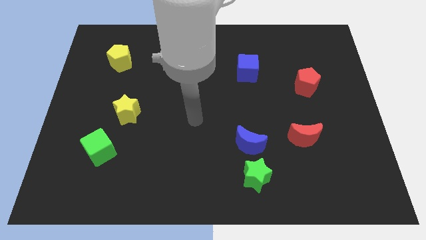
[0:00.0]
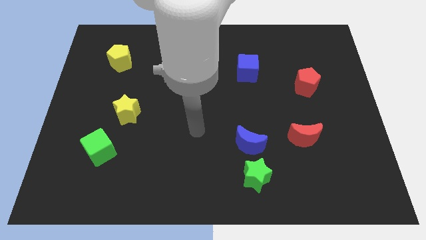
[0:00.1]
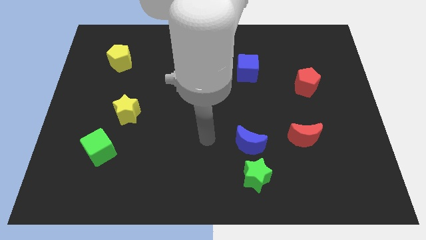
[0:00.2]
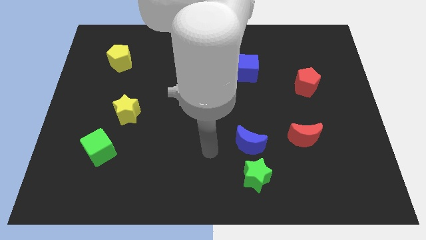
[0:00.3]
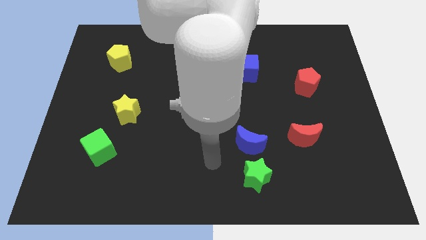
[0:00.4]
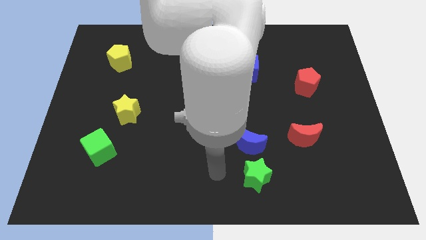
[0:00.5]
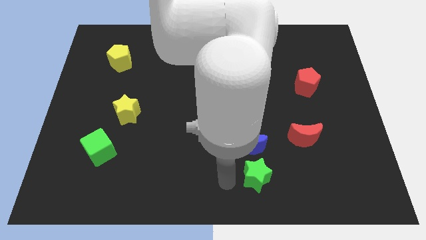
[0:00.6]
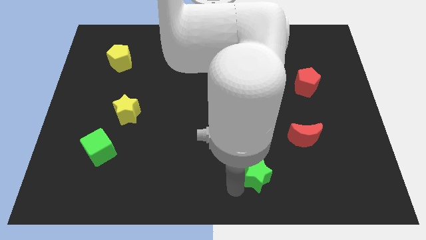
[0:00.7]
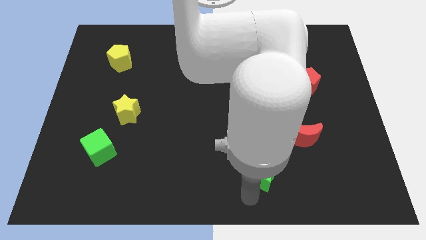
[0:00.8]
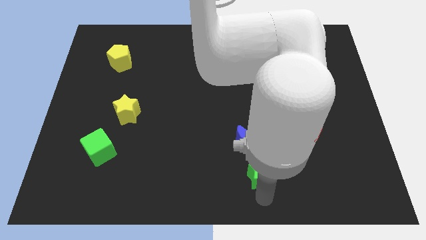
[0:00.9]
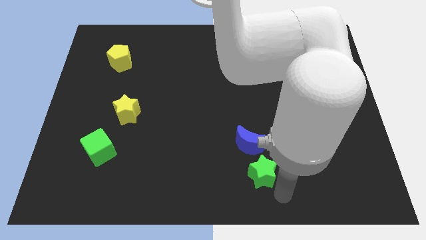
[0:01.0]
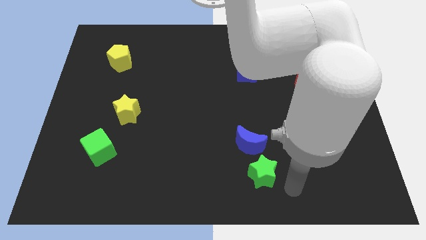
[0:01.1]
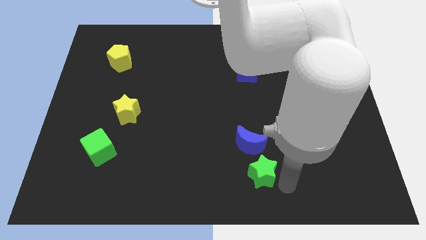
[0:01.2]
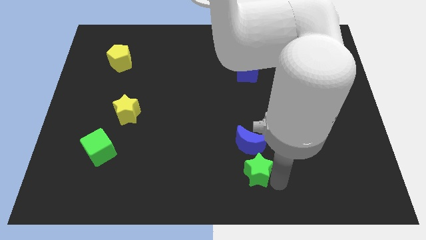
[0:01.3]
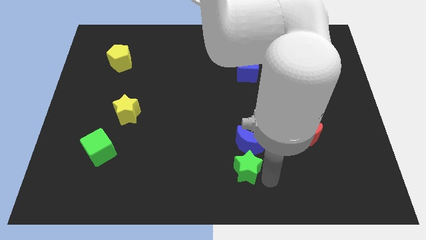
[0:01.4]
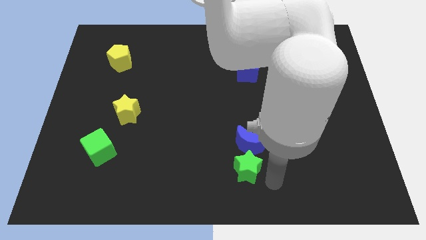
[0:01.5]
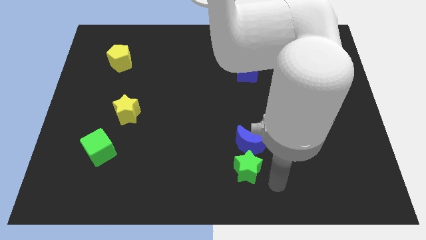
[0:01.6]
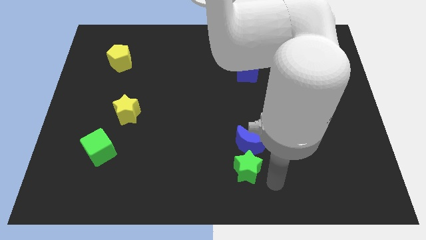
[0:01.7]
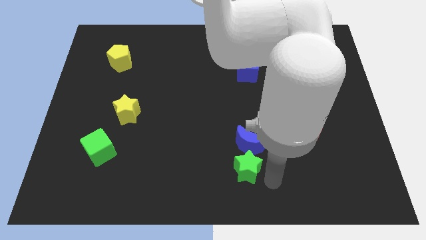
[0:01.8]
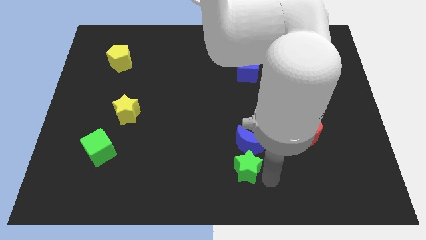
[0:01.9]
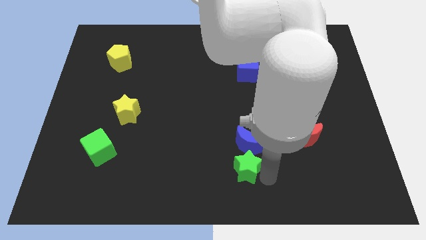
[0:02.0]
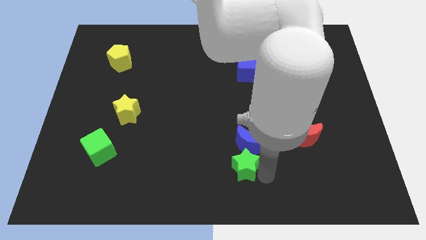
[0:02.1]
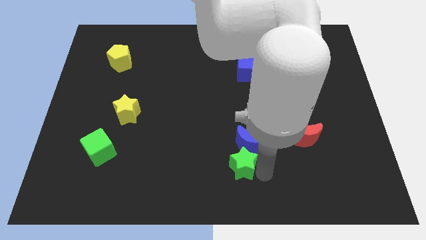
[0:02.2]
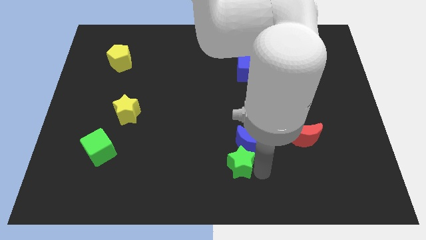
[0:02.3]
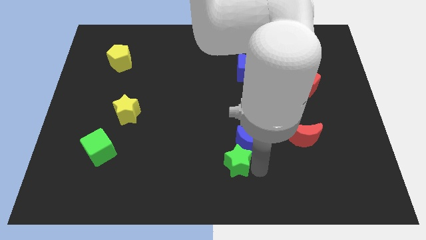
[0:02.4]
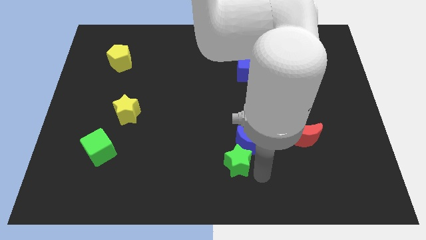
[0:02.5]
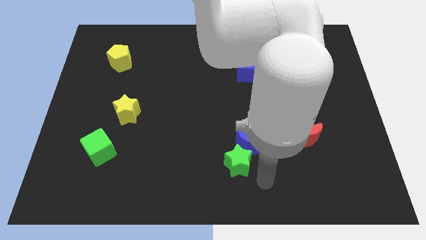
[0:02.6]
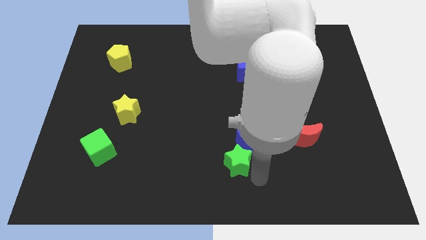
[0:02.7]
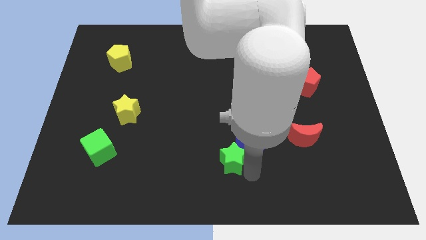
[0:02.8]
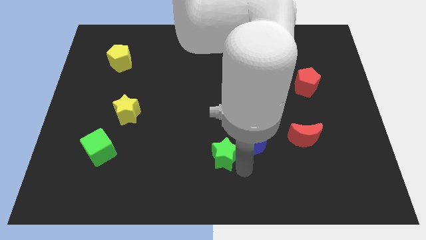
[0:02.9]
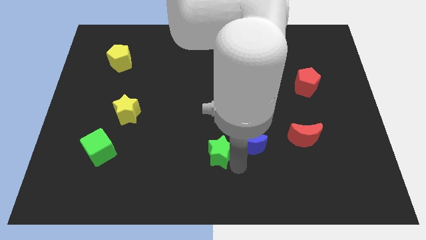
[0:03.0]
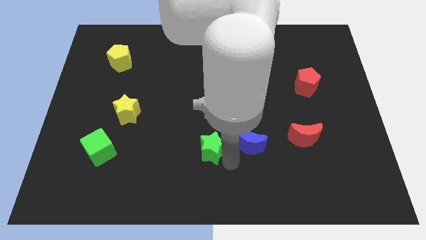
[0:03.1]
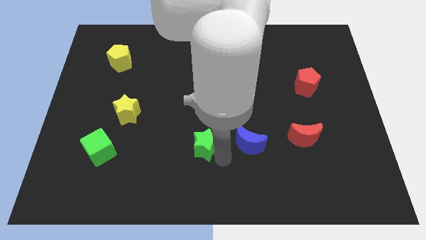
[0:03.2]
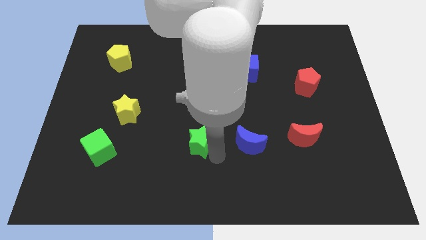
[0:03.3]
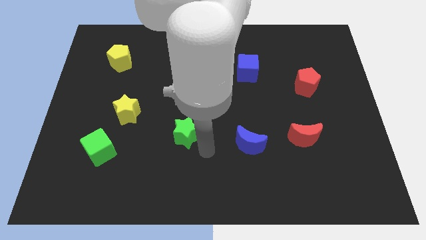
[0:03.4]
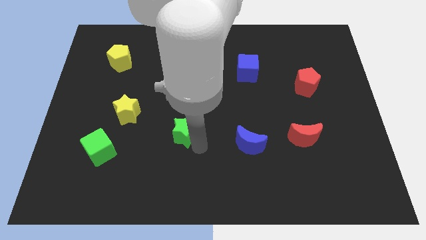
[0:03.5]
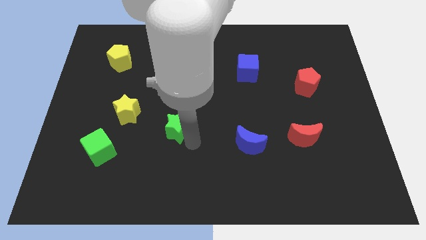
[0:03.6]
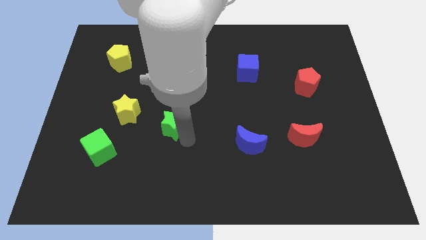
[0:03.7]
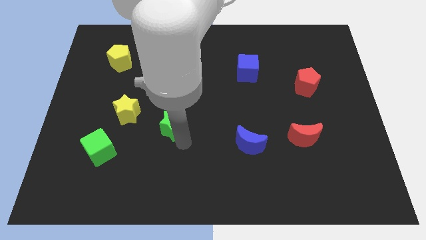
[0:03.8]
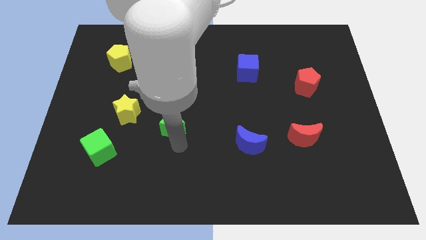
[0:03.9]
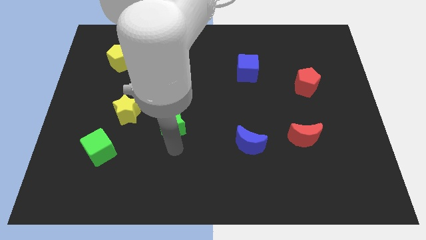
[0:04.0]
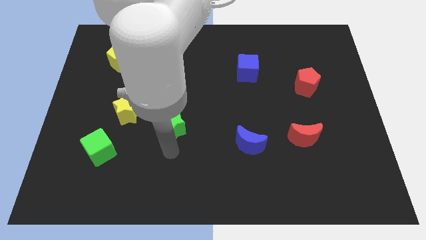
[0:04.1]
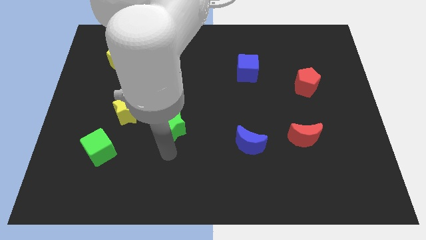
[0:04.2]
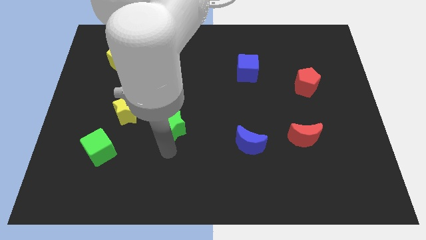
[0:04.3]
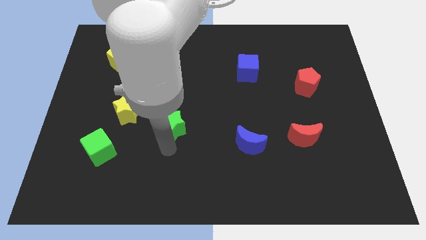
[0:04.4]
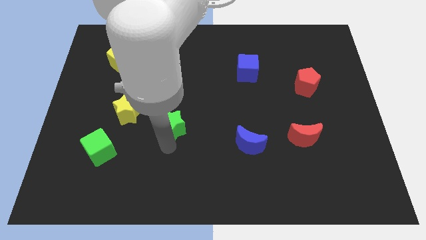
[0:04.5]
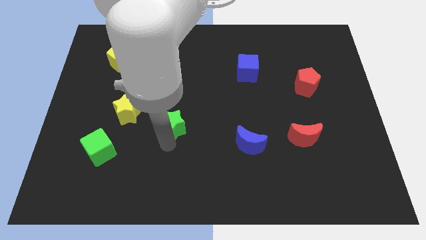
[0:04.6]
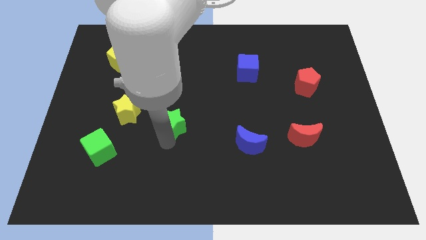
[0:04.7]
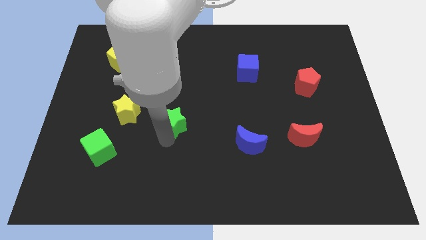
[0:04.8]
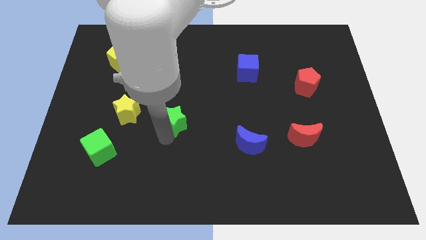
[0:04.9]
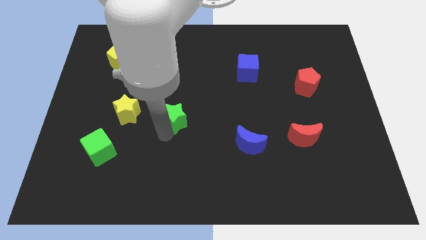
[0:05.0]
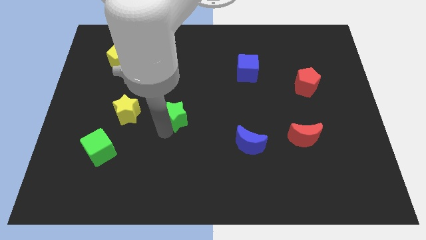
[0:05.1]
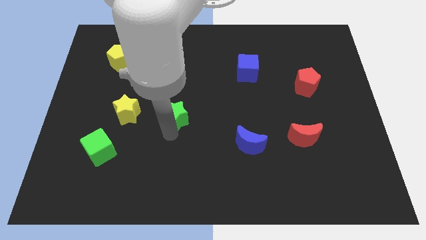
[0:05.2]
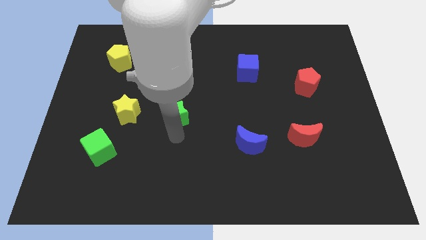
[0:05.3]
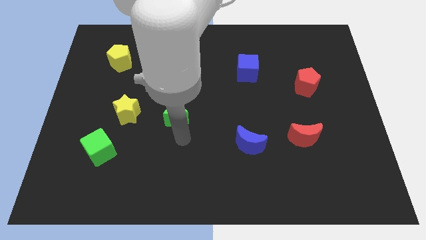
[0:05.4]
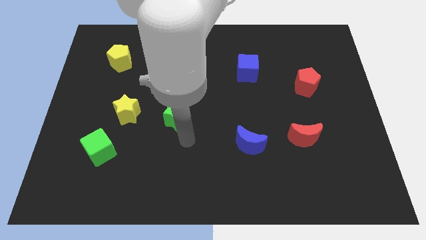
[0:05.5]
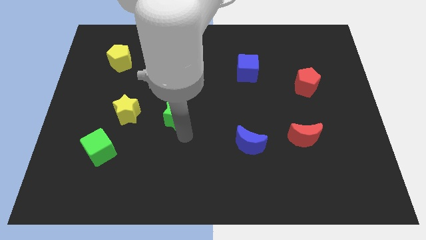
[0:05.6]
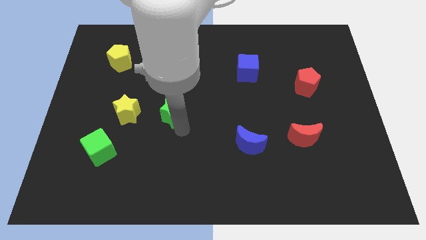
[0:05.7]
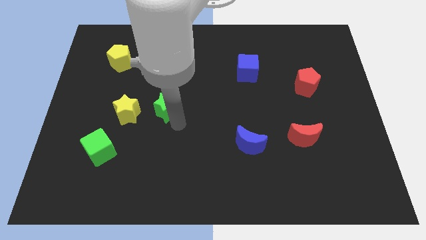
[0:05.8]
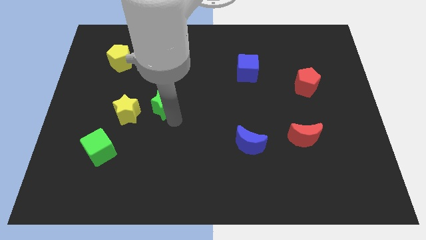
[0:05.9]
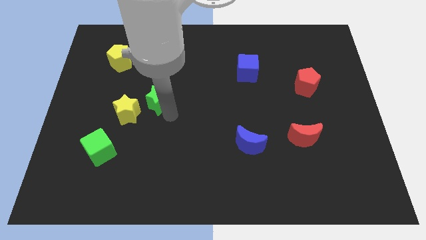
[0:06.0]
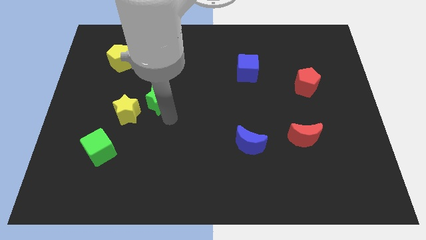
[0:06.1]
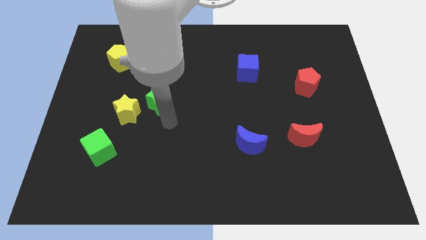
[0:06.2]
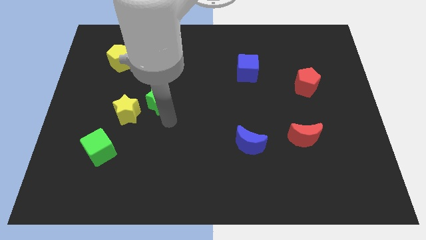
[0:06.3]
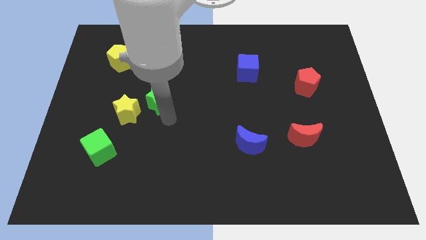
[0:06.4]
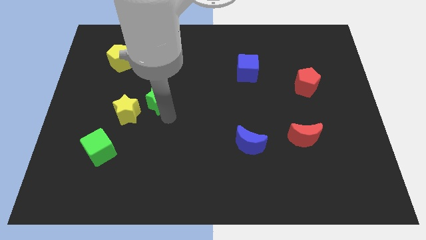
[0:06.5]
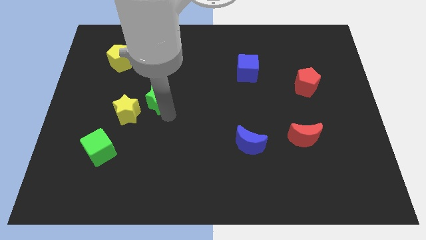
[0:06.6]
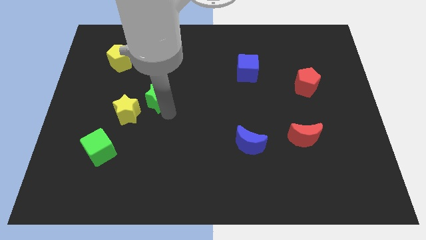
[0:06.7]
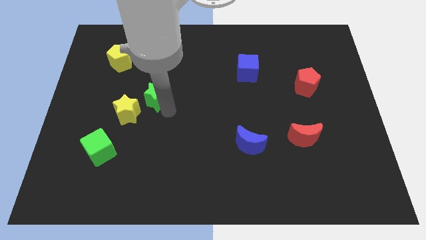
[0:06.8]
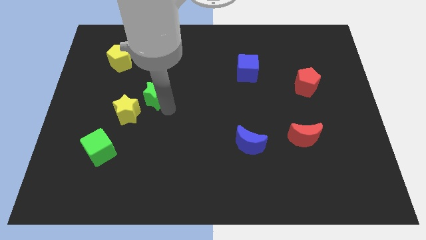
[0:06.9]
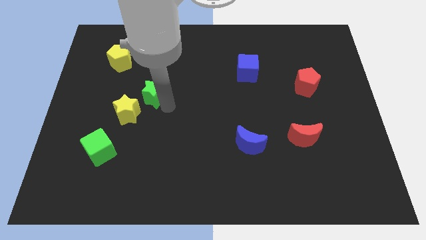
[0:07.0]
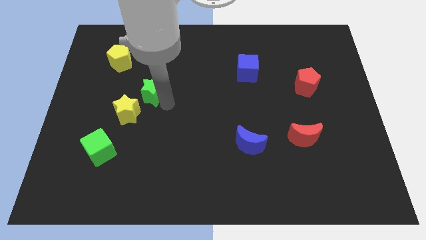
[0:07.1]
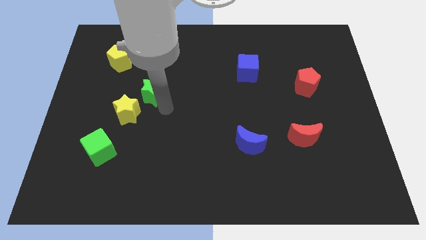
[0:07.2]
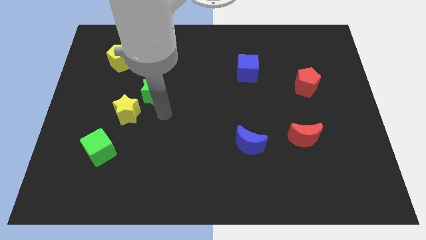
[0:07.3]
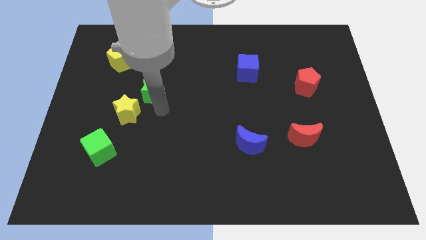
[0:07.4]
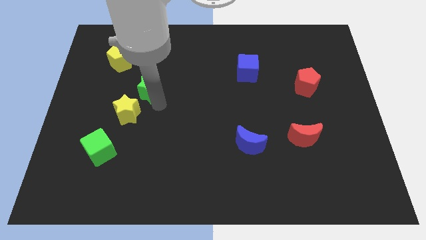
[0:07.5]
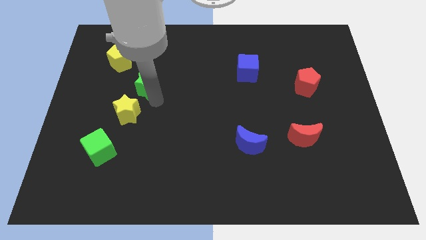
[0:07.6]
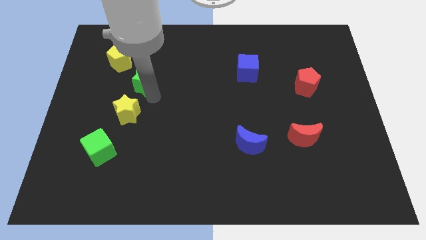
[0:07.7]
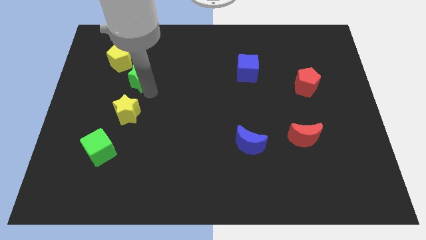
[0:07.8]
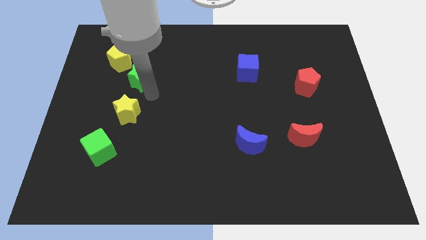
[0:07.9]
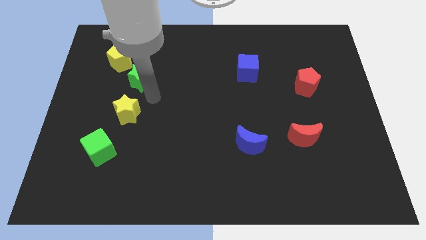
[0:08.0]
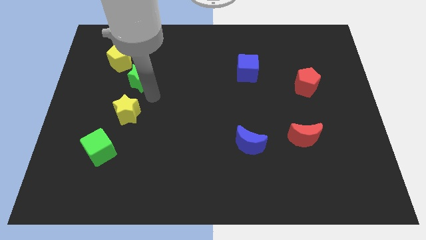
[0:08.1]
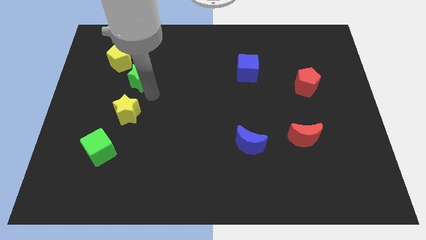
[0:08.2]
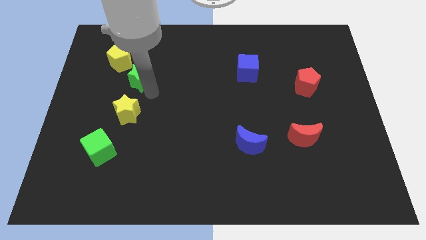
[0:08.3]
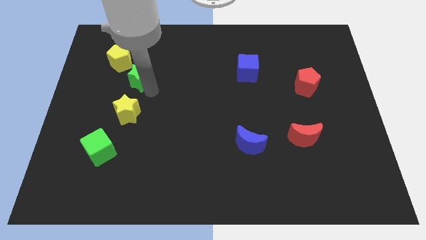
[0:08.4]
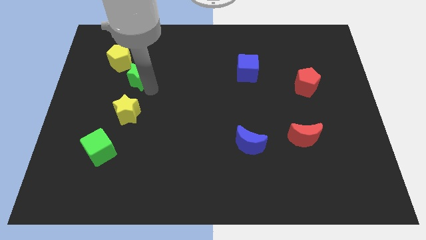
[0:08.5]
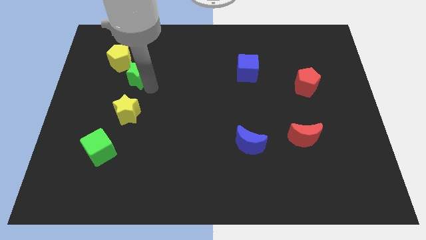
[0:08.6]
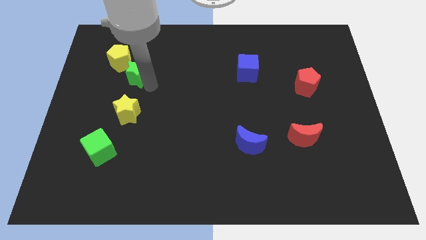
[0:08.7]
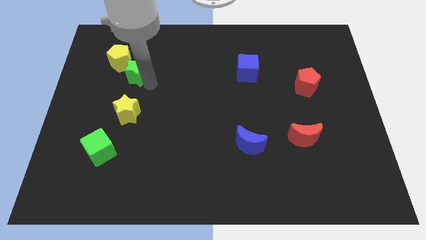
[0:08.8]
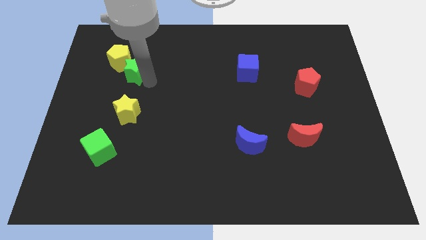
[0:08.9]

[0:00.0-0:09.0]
move the green star towards the yellow pentagon
